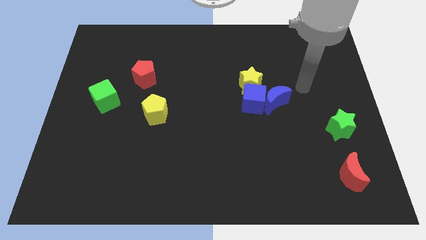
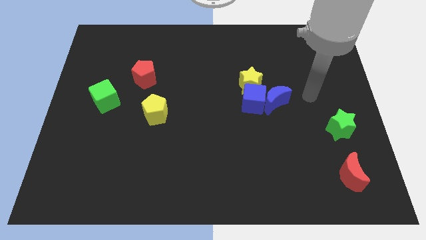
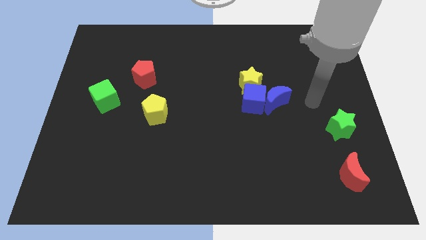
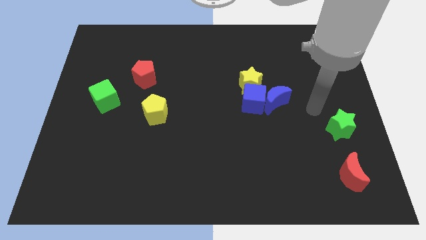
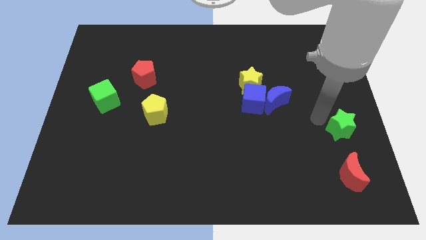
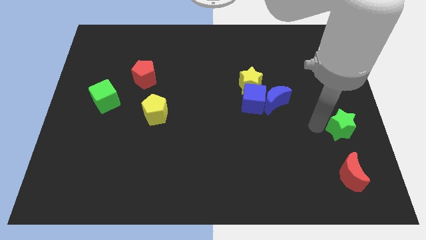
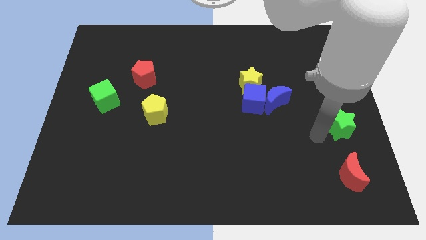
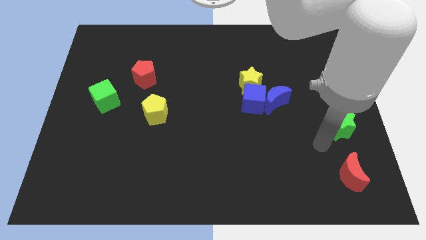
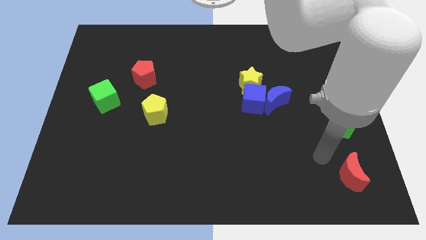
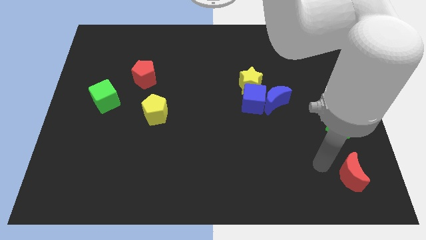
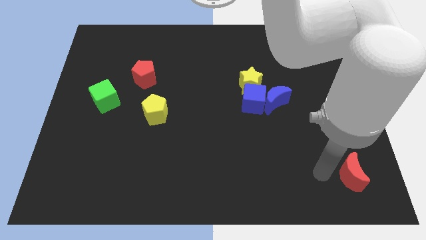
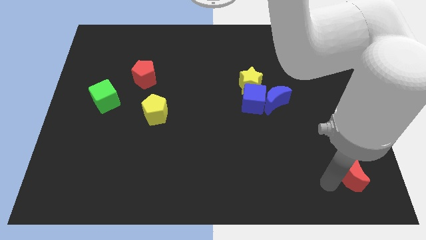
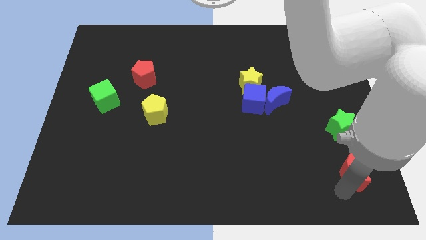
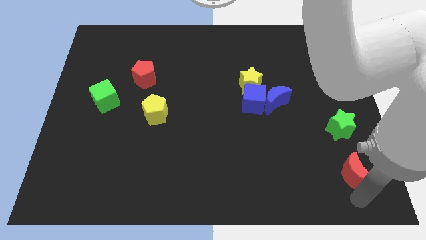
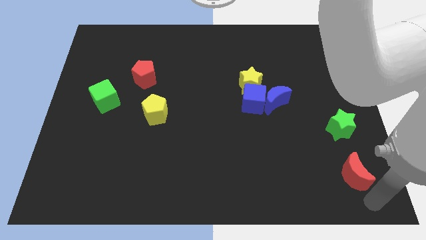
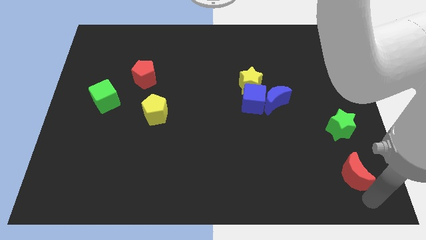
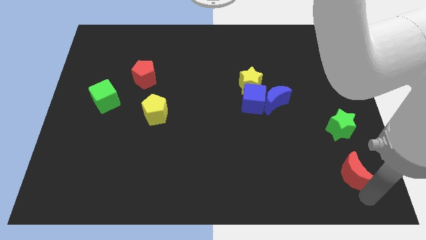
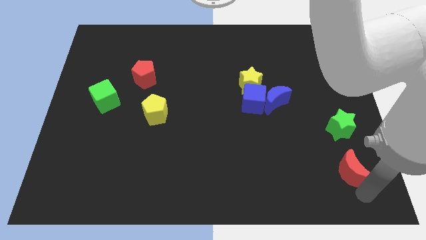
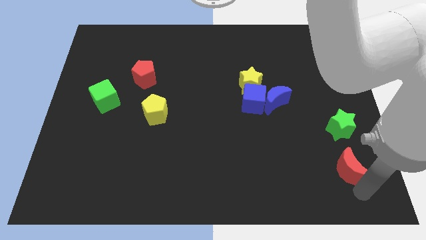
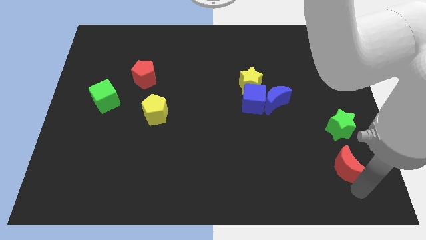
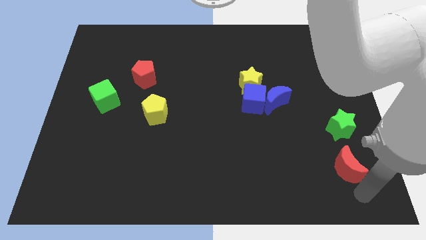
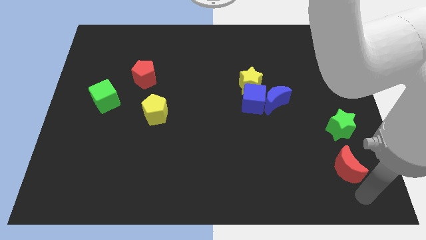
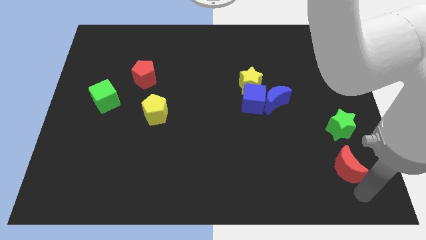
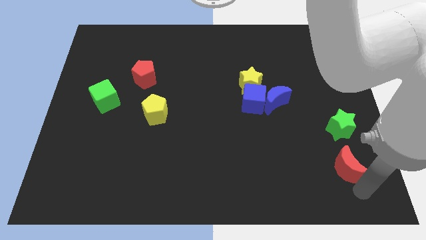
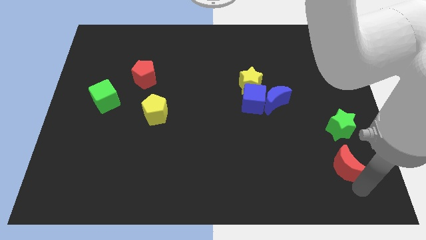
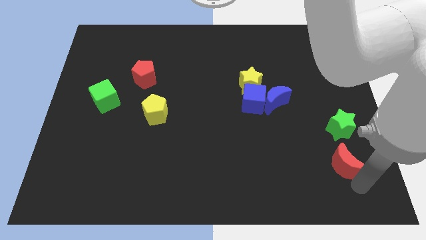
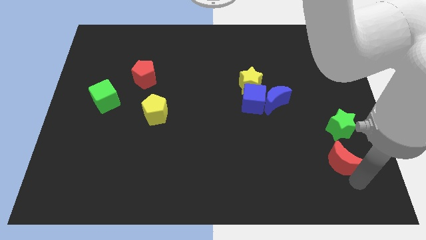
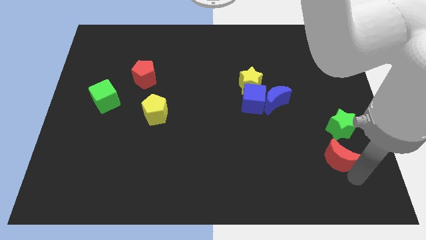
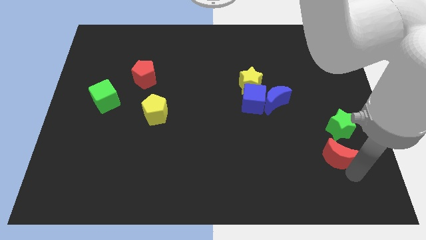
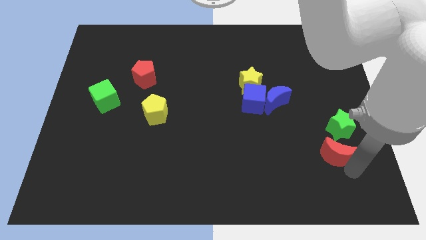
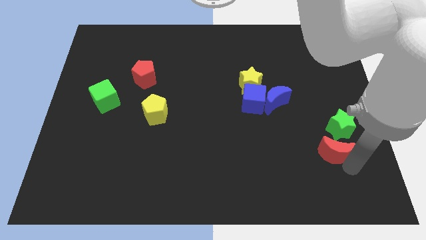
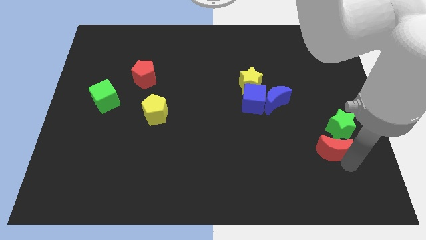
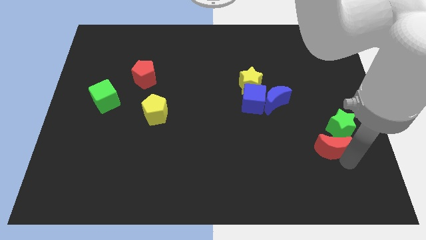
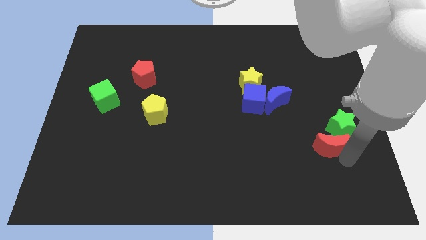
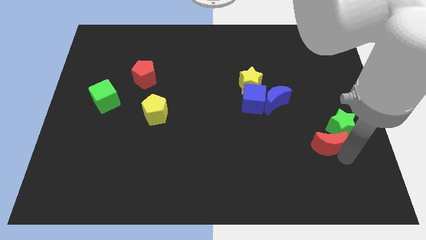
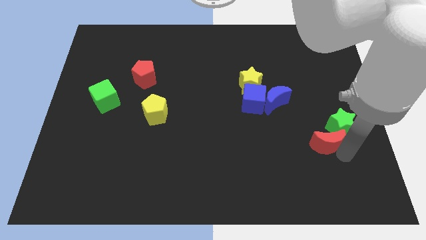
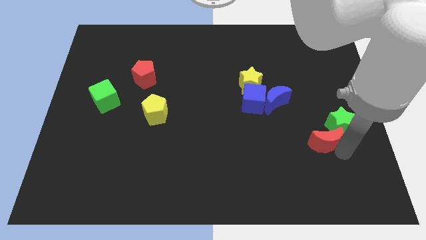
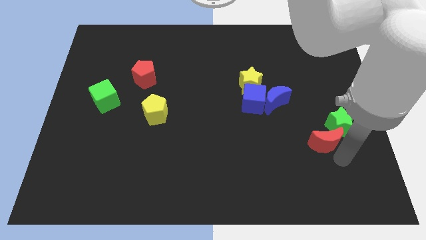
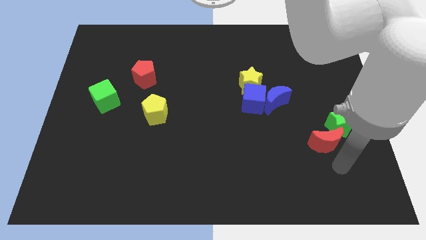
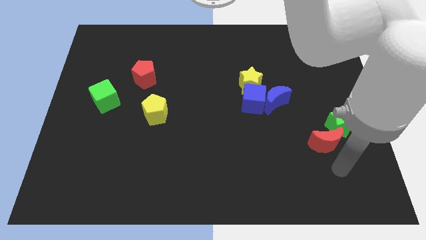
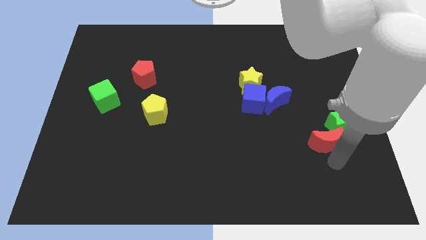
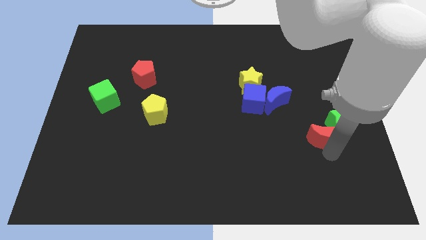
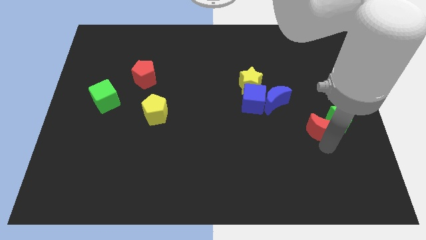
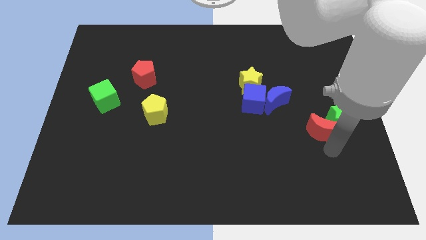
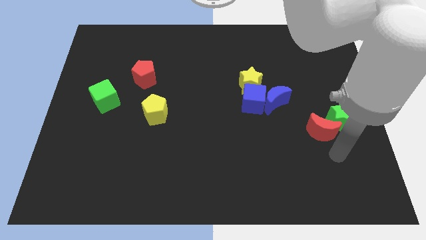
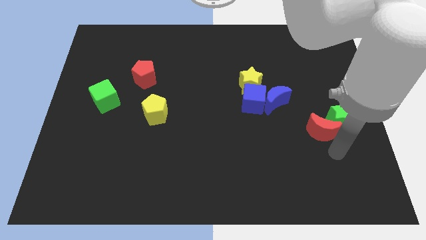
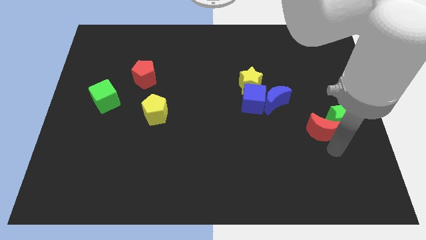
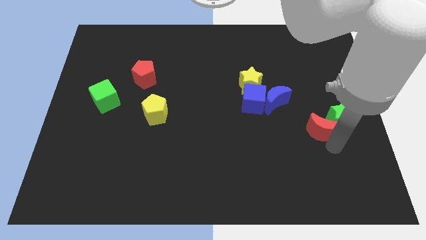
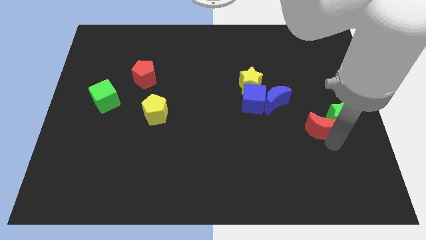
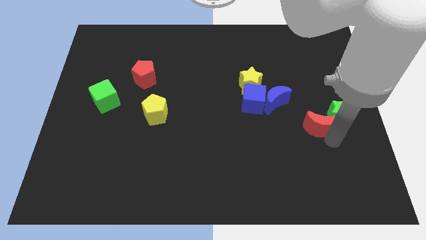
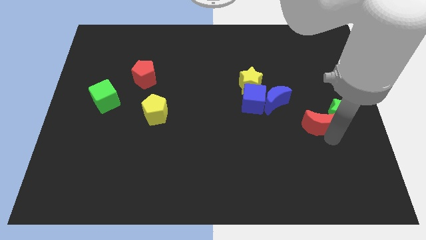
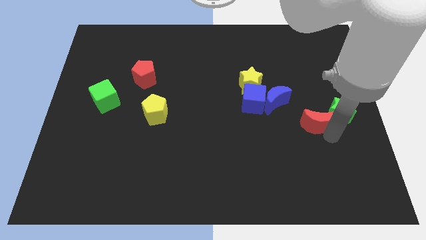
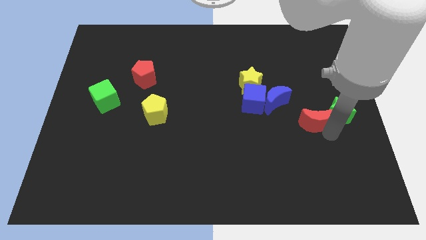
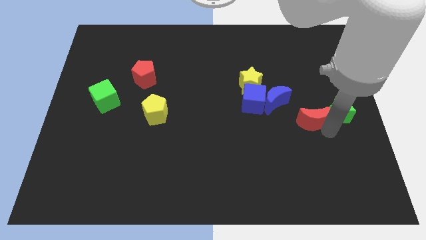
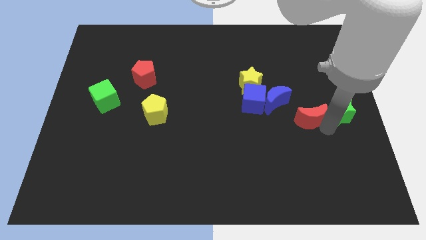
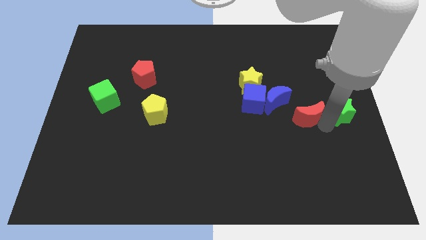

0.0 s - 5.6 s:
move the red moon to the right of the blue cube

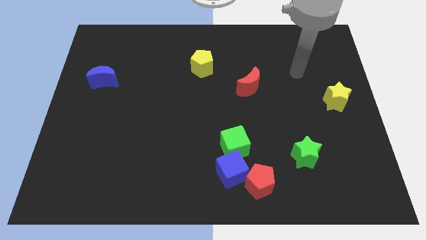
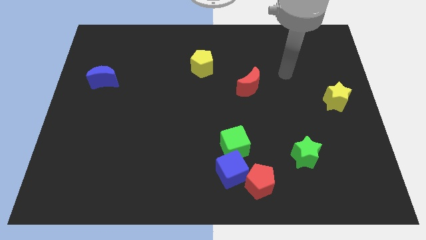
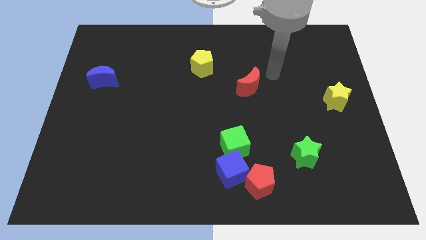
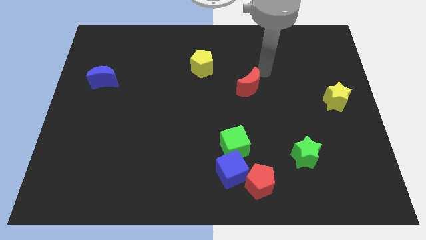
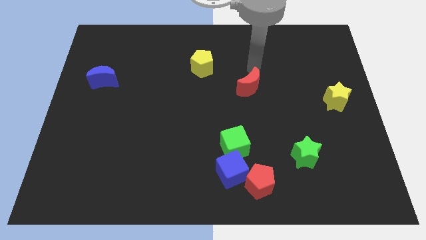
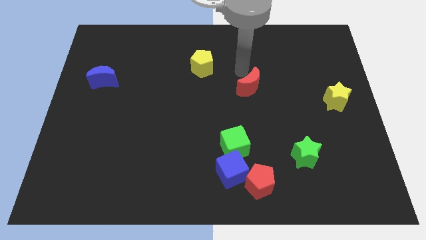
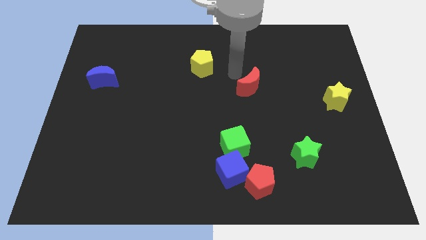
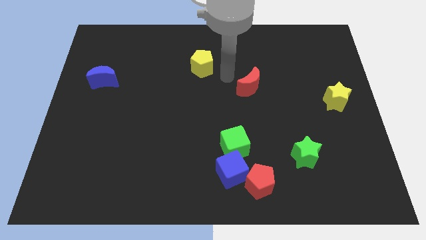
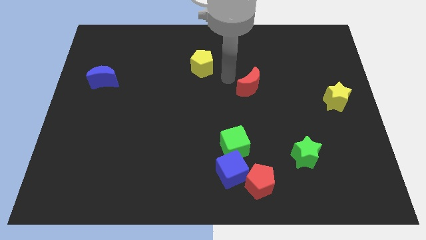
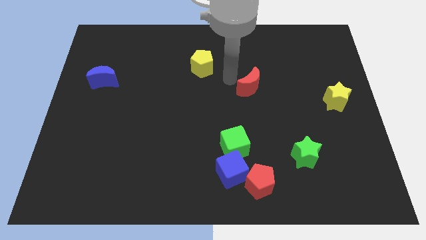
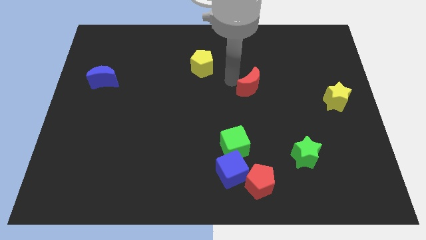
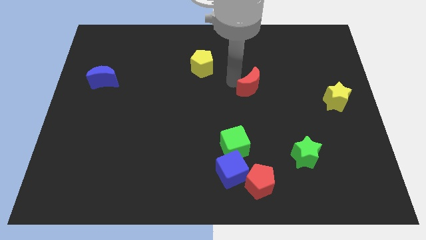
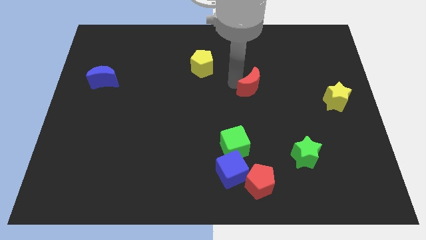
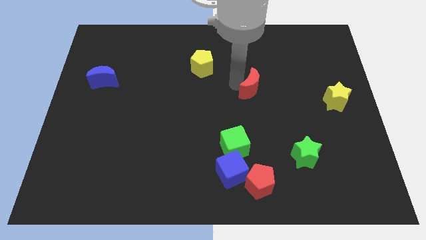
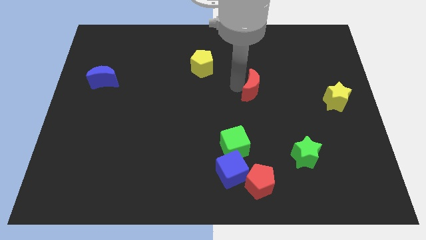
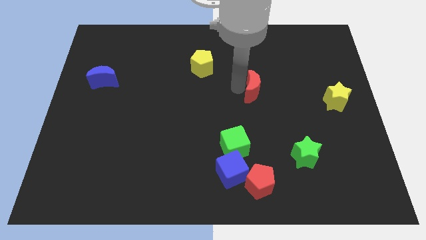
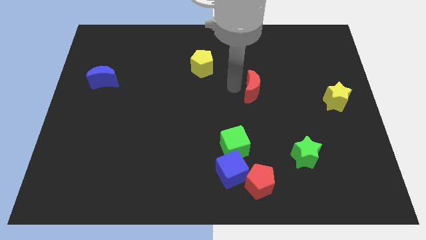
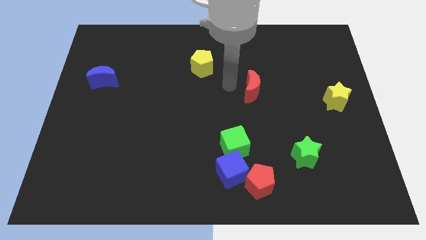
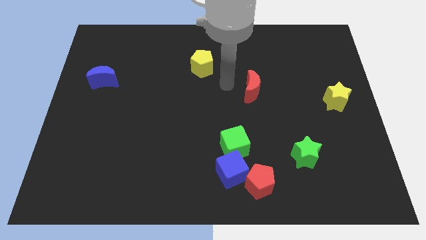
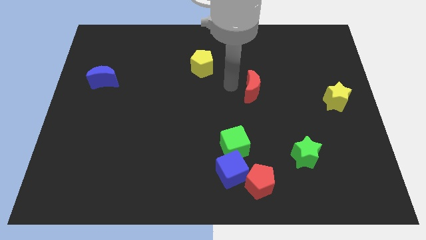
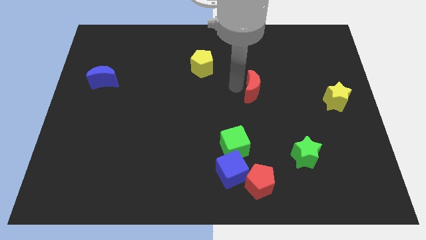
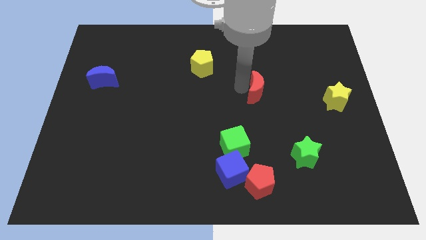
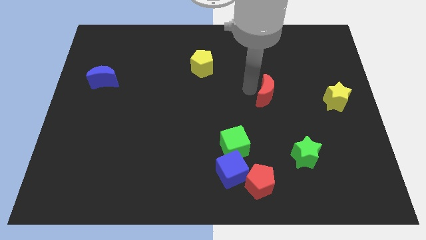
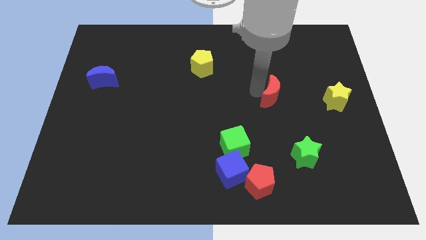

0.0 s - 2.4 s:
push the red moon left of the yellow star
